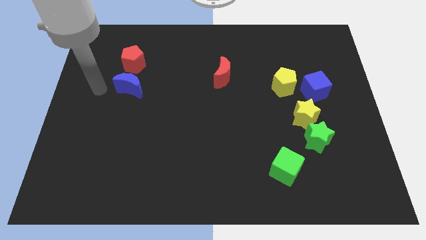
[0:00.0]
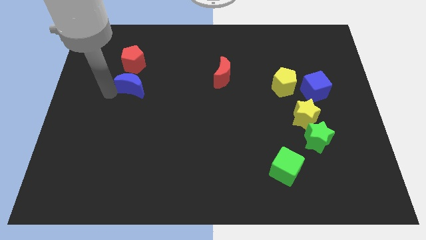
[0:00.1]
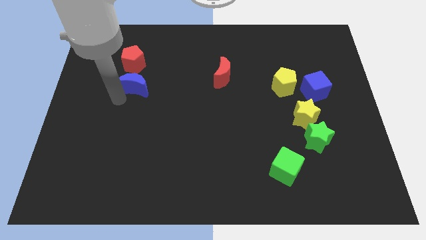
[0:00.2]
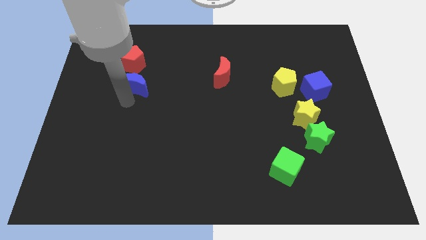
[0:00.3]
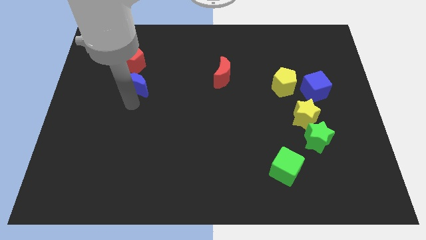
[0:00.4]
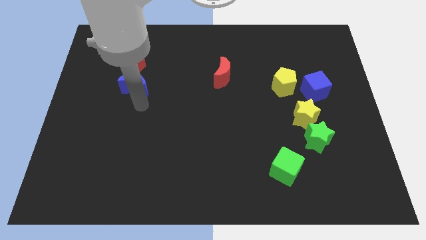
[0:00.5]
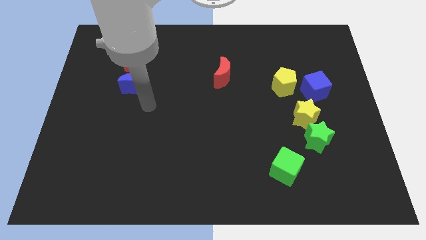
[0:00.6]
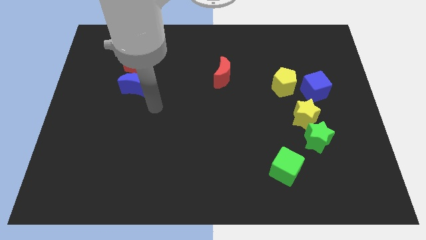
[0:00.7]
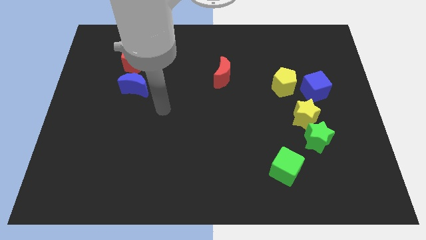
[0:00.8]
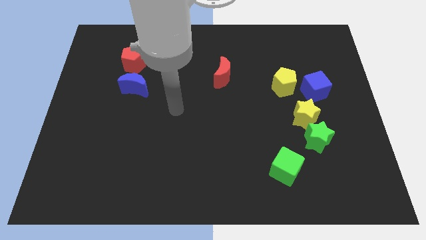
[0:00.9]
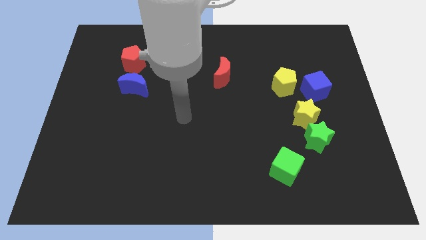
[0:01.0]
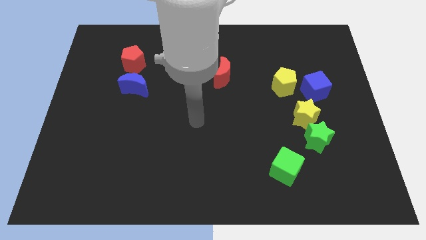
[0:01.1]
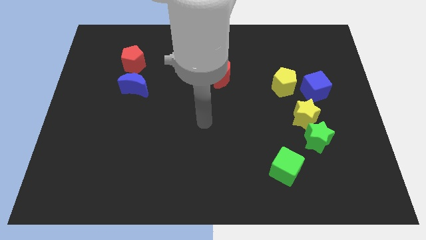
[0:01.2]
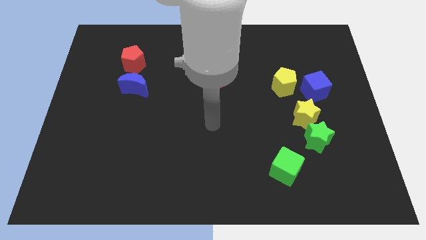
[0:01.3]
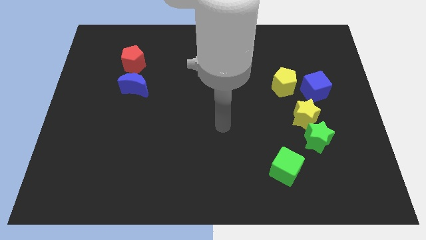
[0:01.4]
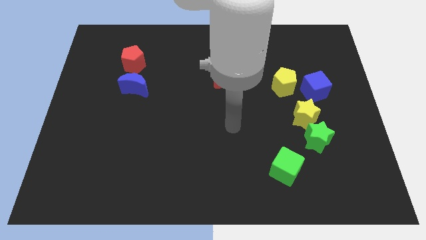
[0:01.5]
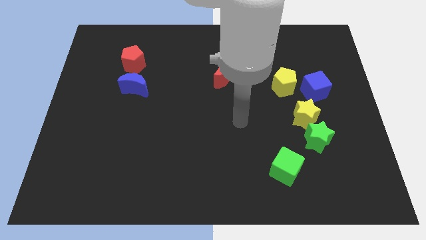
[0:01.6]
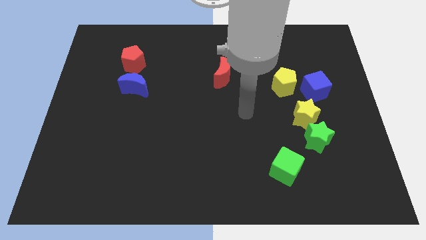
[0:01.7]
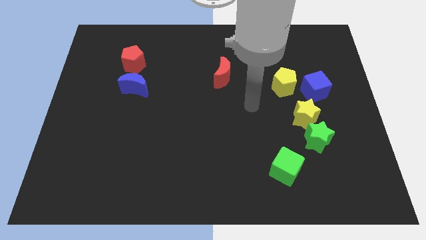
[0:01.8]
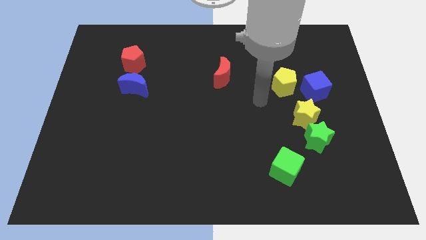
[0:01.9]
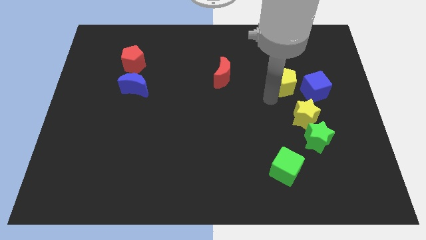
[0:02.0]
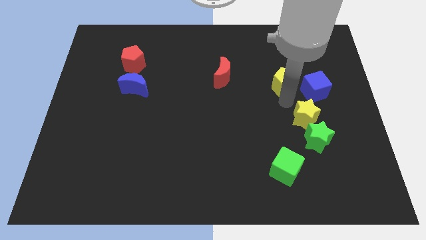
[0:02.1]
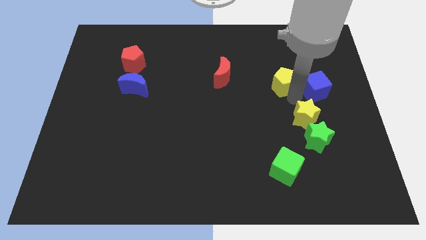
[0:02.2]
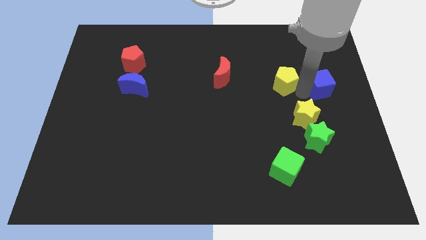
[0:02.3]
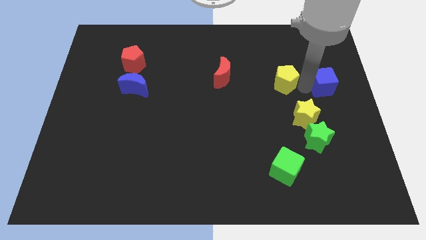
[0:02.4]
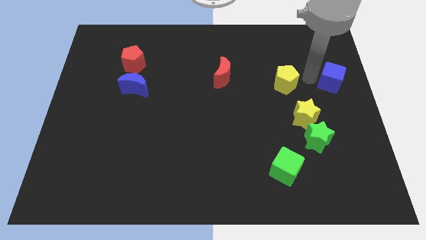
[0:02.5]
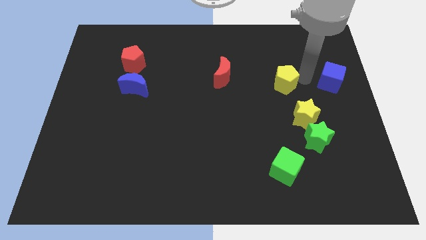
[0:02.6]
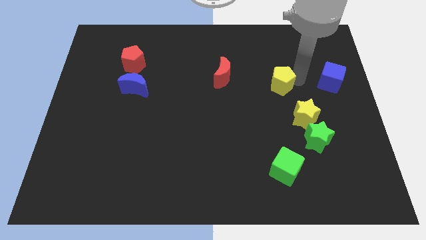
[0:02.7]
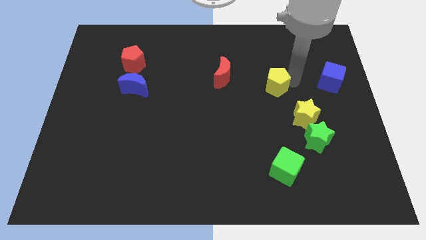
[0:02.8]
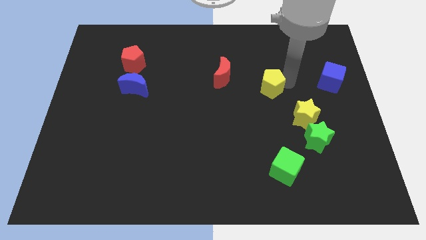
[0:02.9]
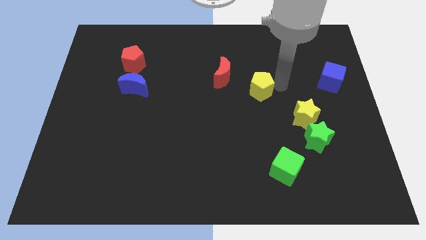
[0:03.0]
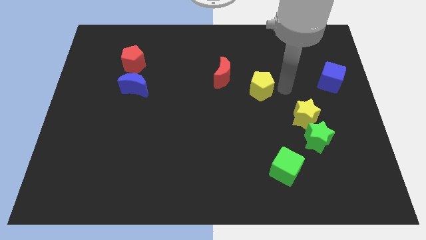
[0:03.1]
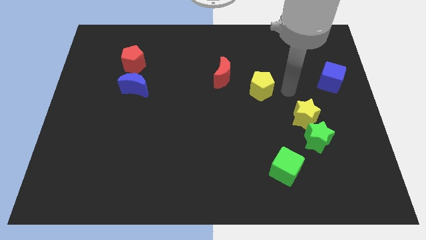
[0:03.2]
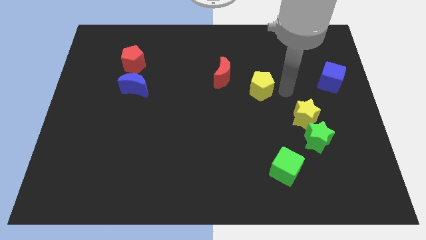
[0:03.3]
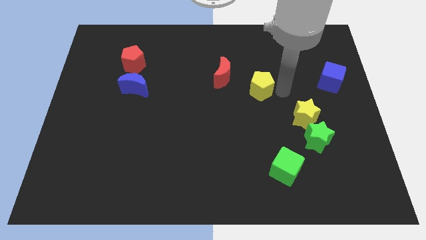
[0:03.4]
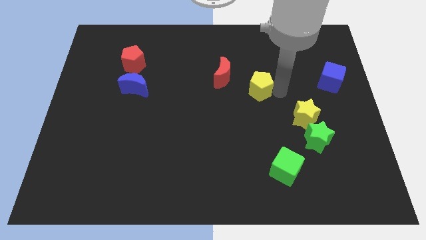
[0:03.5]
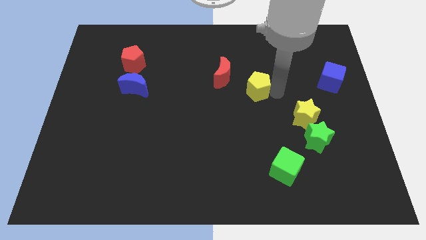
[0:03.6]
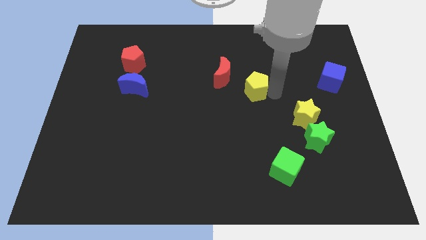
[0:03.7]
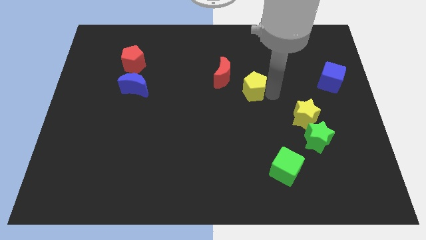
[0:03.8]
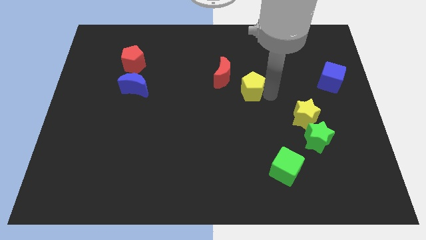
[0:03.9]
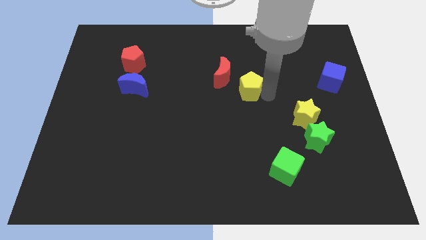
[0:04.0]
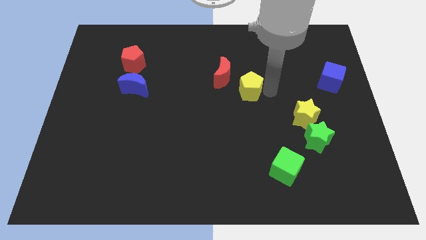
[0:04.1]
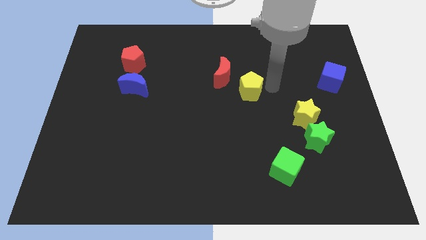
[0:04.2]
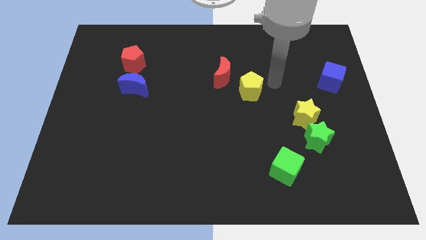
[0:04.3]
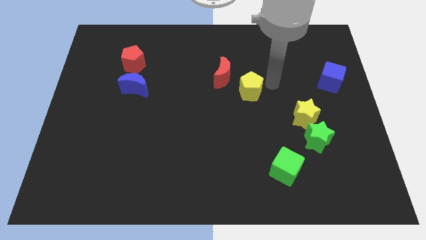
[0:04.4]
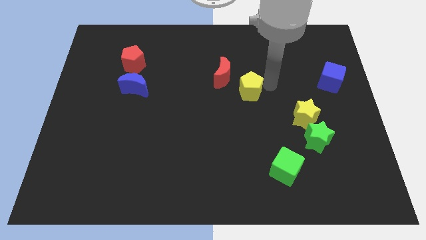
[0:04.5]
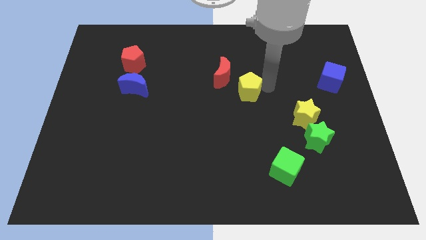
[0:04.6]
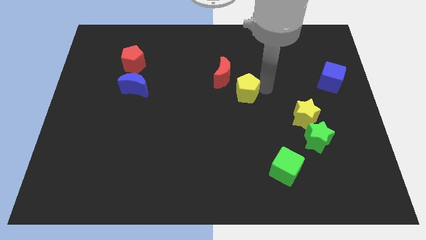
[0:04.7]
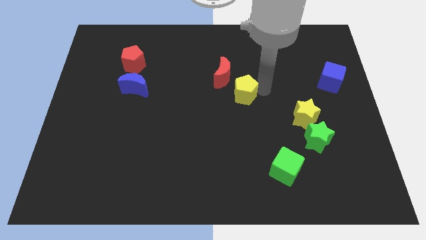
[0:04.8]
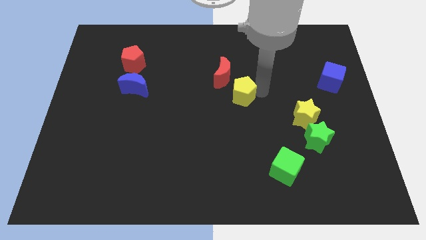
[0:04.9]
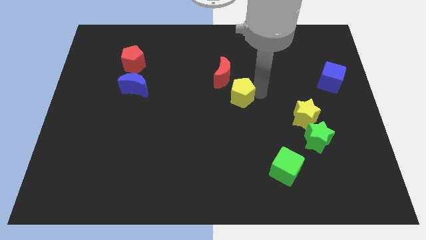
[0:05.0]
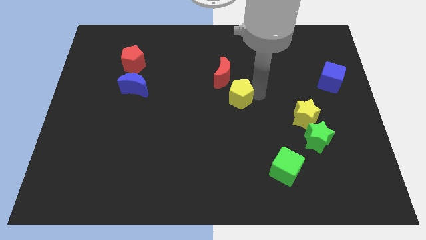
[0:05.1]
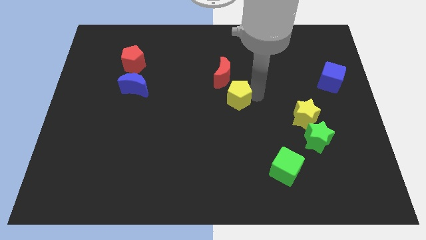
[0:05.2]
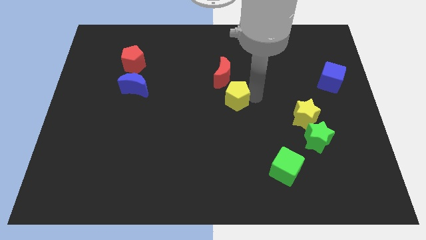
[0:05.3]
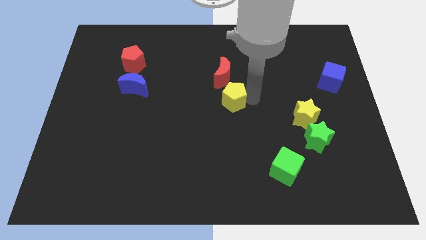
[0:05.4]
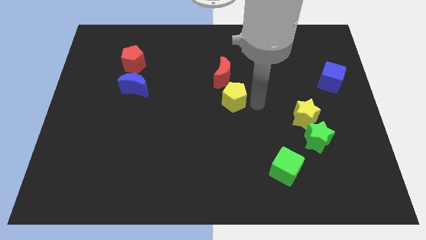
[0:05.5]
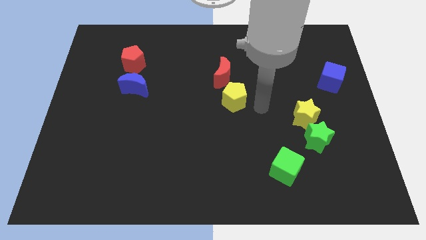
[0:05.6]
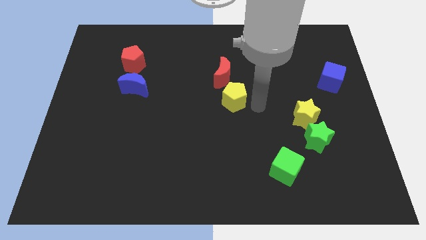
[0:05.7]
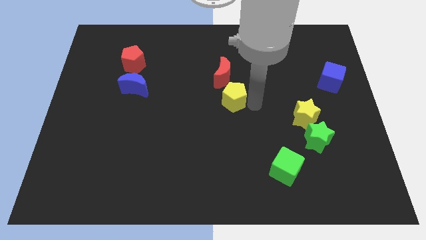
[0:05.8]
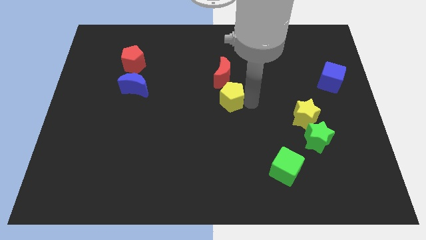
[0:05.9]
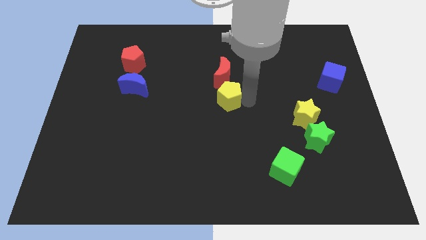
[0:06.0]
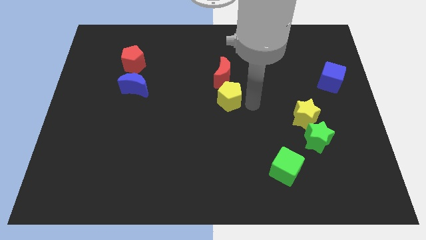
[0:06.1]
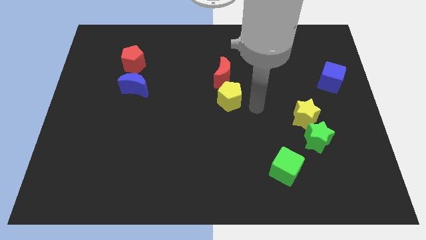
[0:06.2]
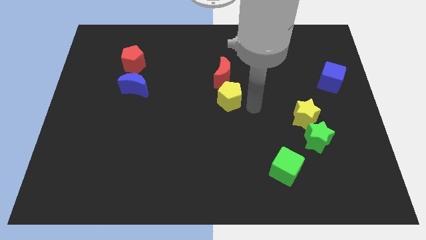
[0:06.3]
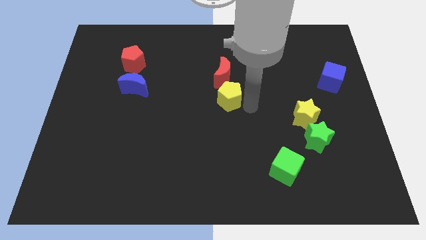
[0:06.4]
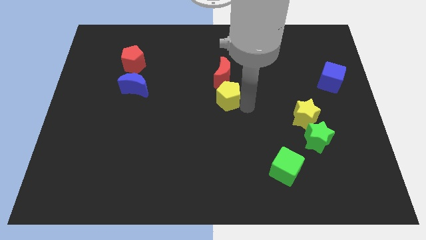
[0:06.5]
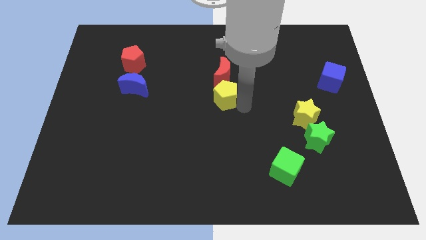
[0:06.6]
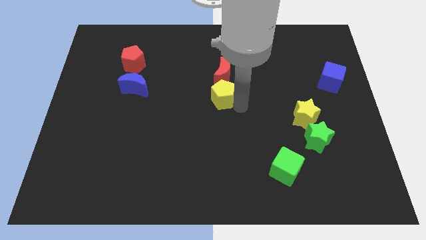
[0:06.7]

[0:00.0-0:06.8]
move the yellow pentagon to the bottom left of the red moon
